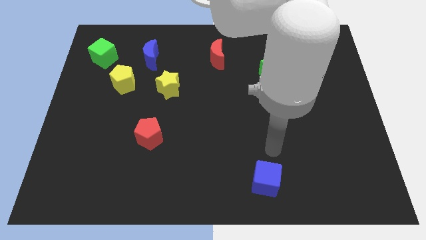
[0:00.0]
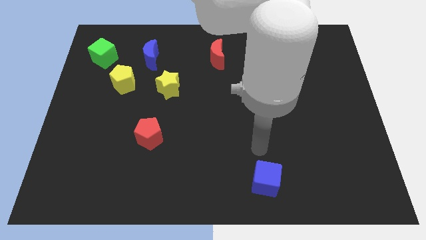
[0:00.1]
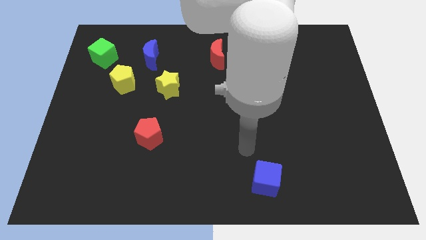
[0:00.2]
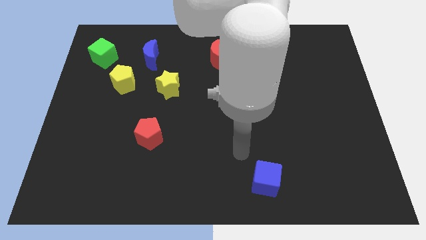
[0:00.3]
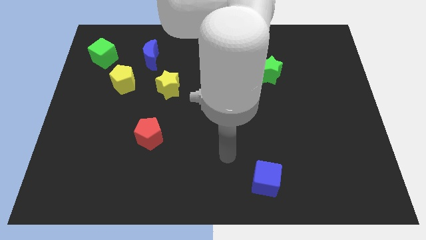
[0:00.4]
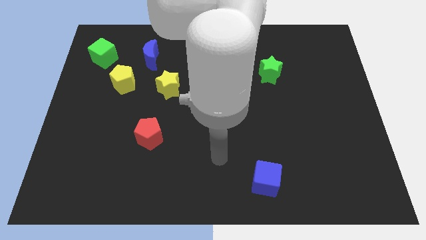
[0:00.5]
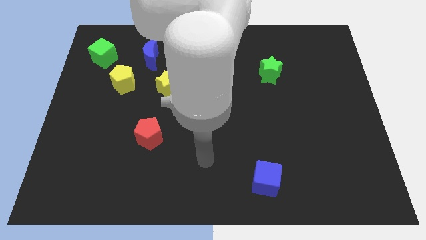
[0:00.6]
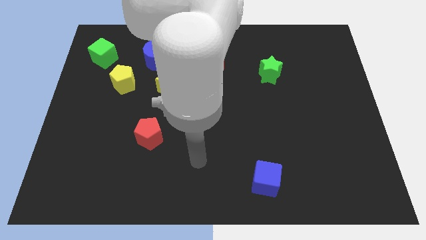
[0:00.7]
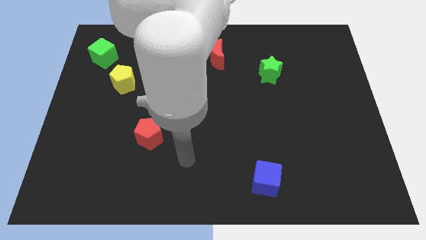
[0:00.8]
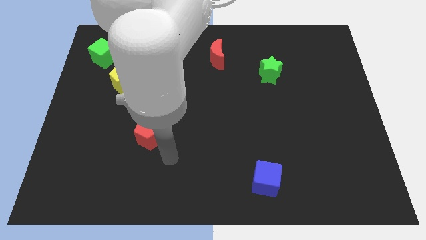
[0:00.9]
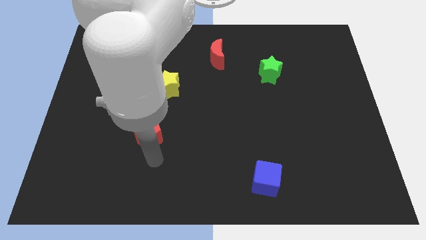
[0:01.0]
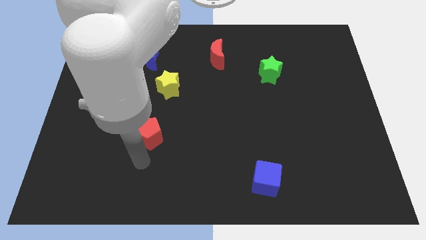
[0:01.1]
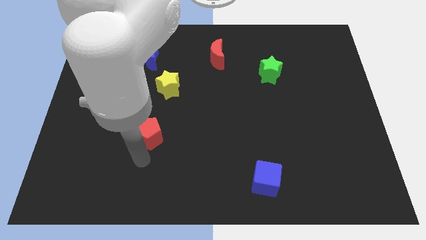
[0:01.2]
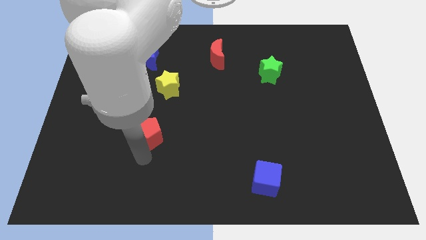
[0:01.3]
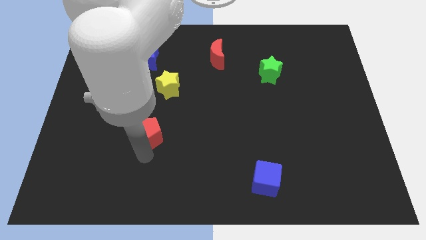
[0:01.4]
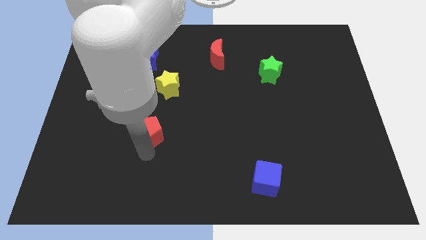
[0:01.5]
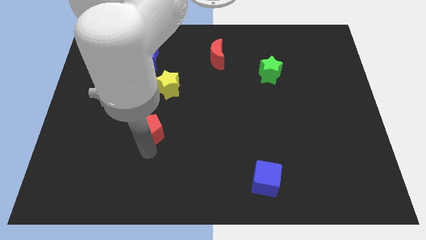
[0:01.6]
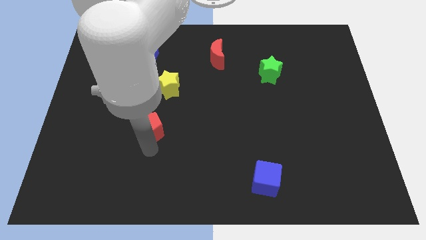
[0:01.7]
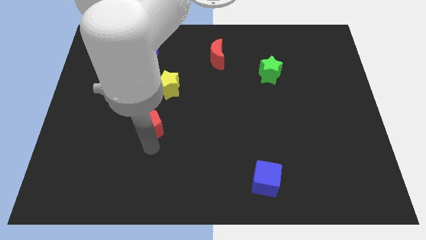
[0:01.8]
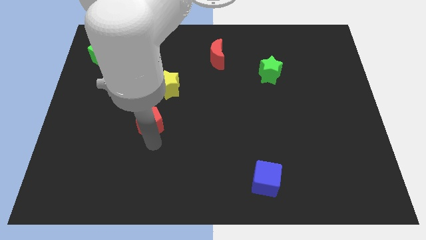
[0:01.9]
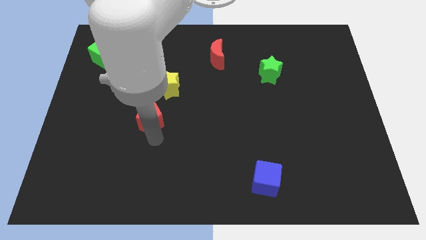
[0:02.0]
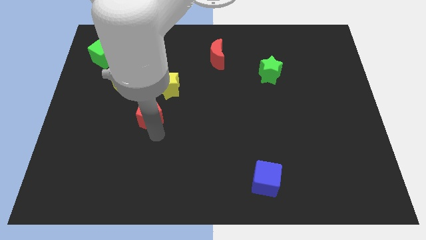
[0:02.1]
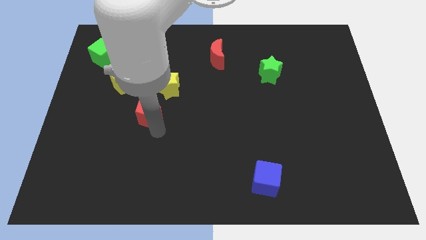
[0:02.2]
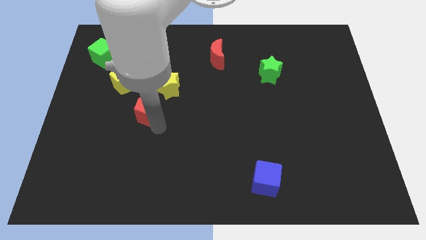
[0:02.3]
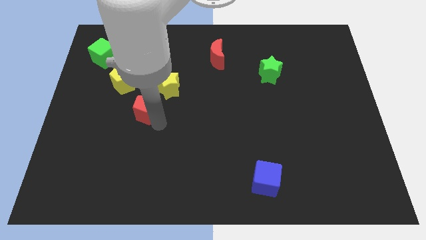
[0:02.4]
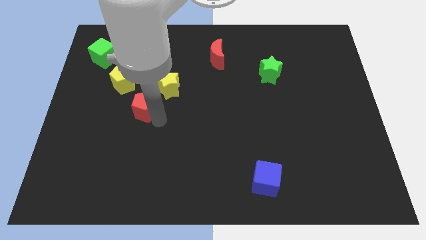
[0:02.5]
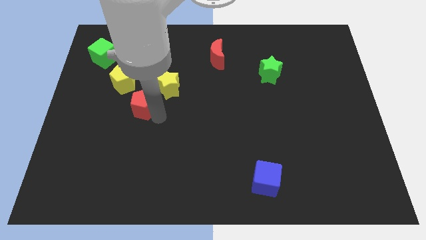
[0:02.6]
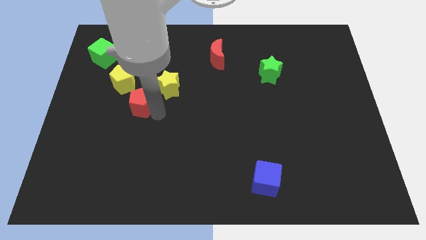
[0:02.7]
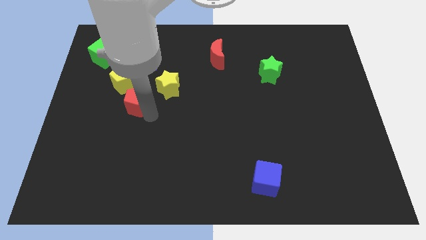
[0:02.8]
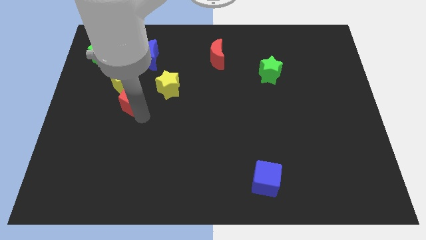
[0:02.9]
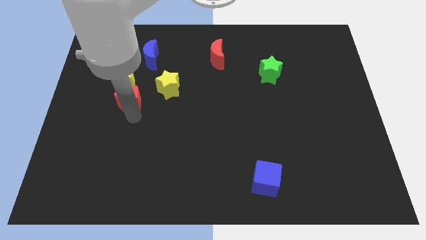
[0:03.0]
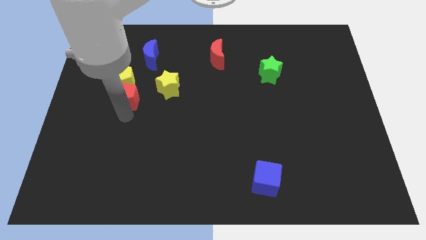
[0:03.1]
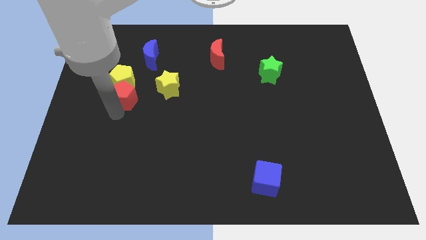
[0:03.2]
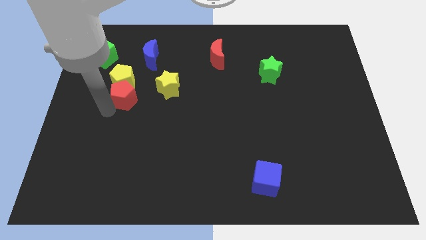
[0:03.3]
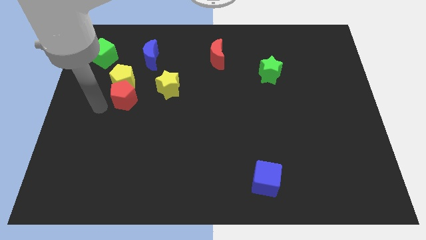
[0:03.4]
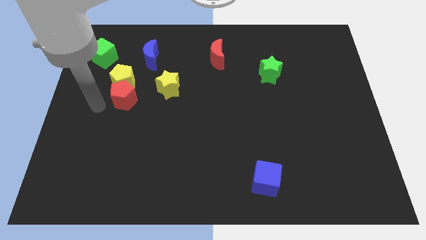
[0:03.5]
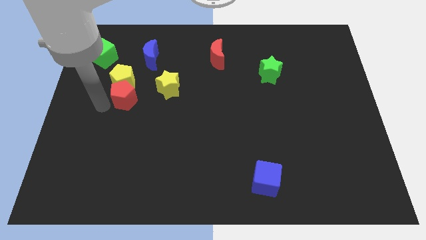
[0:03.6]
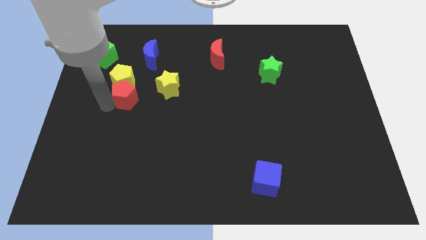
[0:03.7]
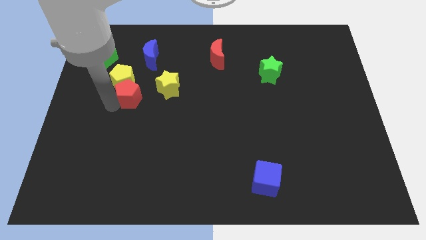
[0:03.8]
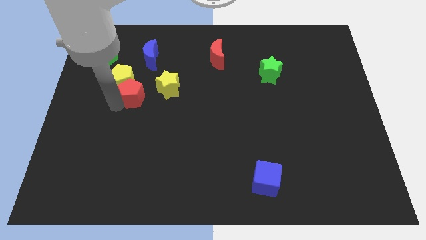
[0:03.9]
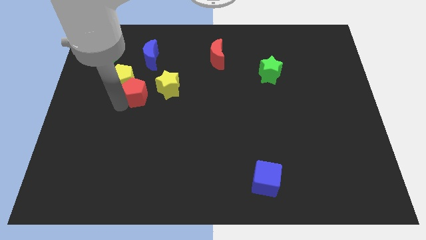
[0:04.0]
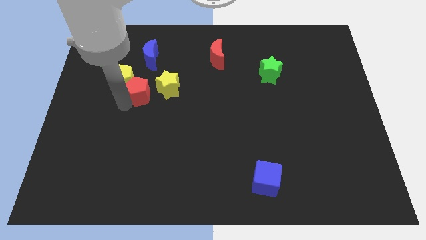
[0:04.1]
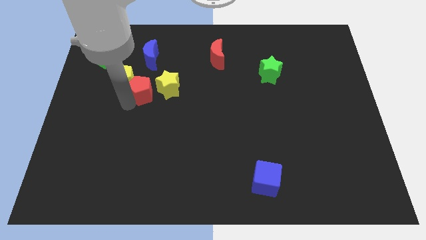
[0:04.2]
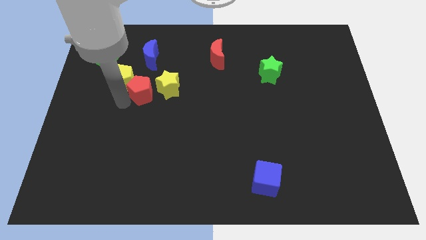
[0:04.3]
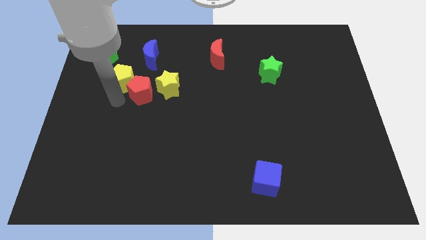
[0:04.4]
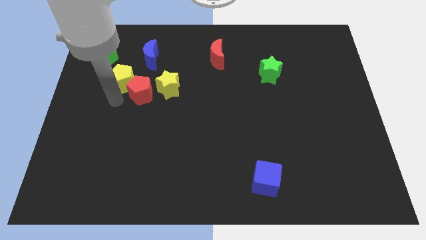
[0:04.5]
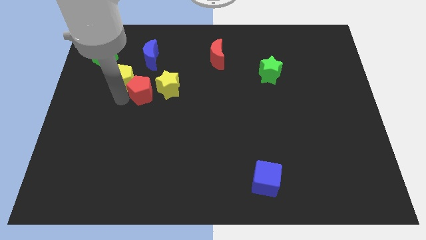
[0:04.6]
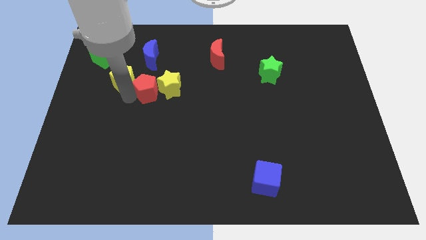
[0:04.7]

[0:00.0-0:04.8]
move the red pentagon next to the yellow star

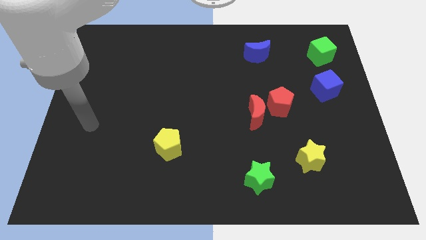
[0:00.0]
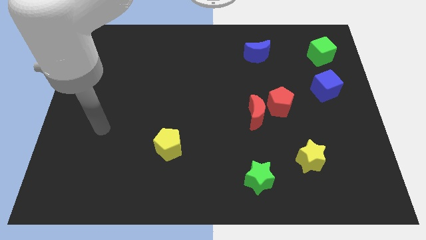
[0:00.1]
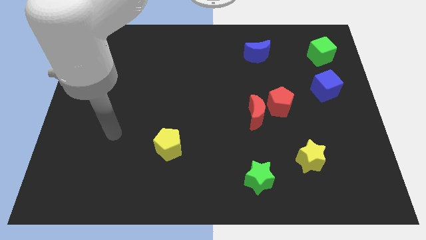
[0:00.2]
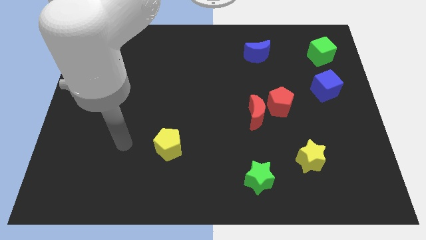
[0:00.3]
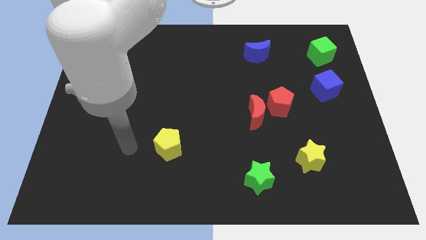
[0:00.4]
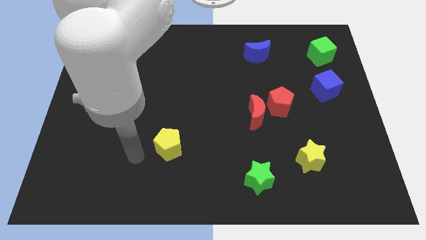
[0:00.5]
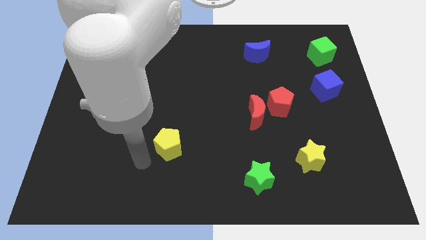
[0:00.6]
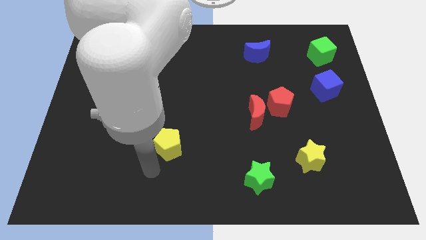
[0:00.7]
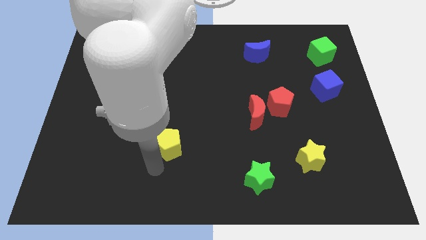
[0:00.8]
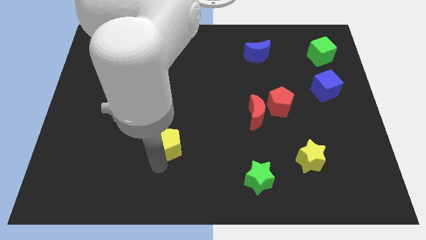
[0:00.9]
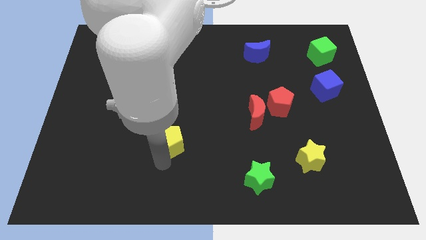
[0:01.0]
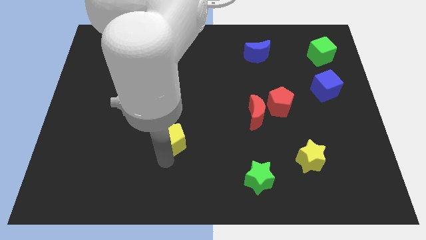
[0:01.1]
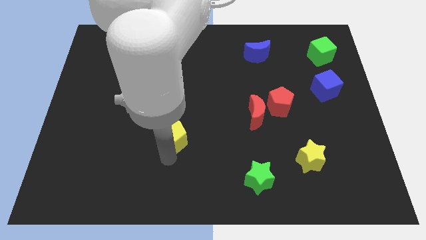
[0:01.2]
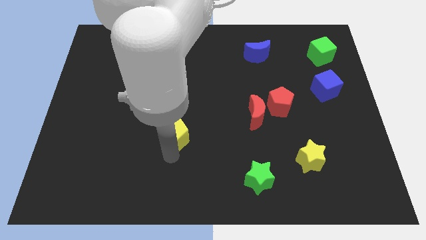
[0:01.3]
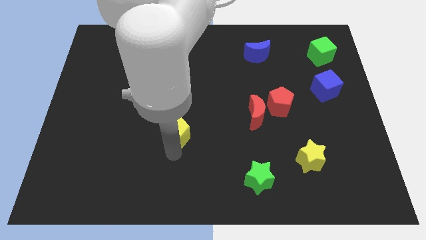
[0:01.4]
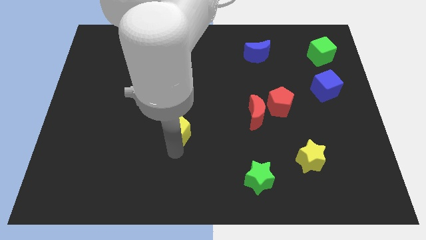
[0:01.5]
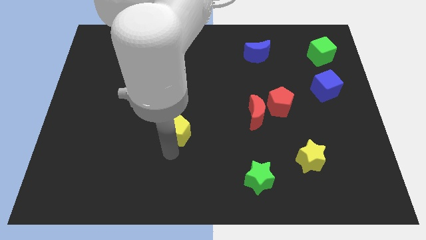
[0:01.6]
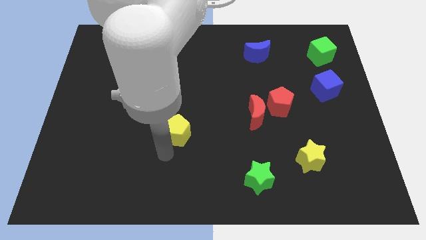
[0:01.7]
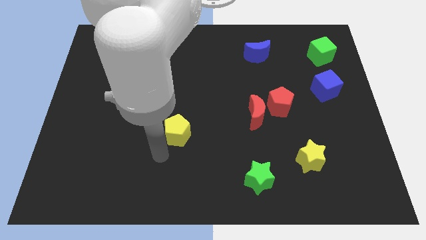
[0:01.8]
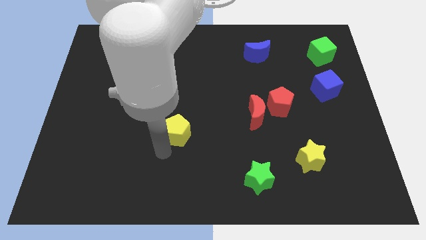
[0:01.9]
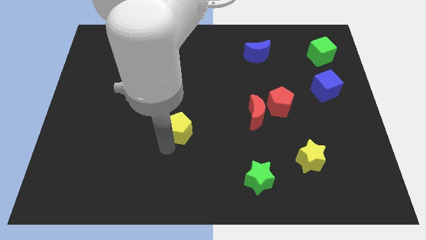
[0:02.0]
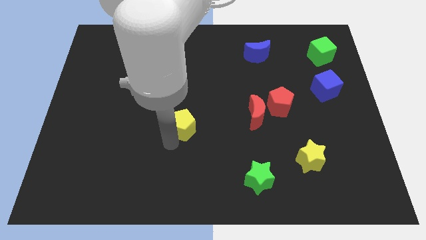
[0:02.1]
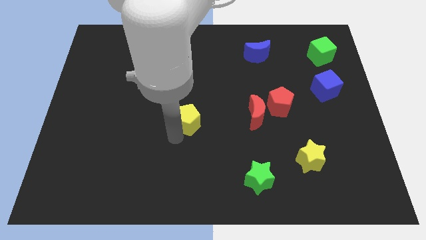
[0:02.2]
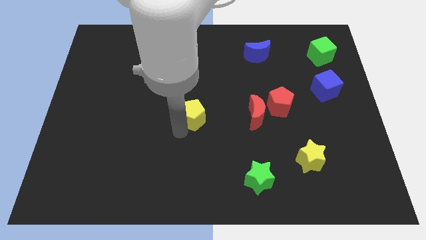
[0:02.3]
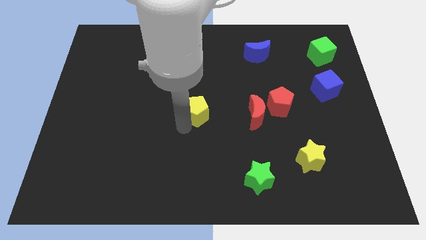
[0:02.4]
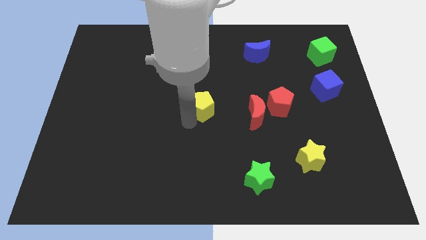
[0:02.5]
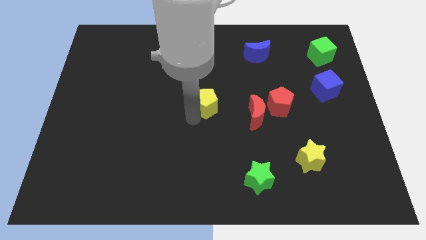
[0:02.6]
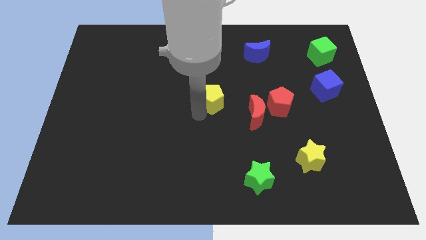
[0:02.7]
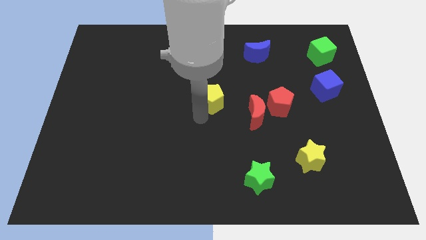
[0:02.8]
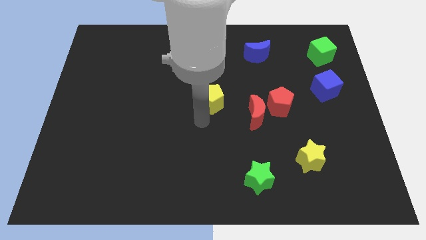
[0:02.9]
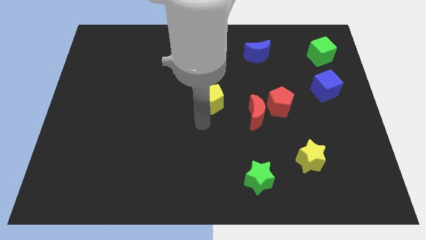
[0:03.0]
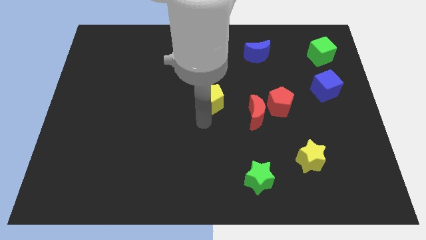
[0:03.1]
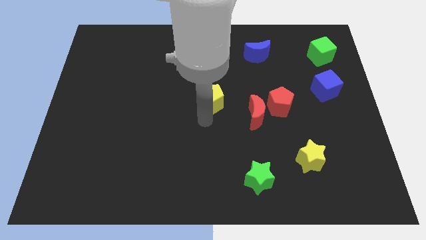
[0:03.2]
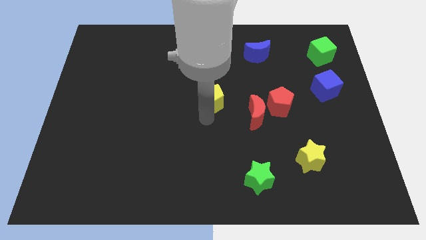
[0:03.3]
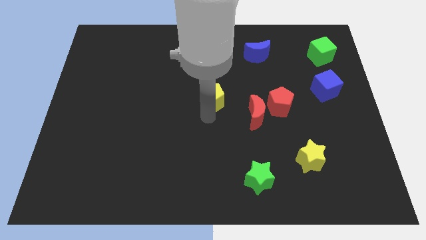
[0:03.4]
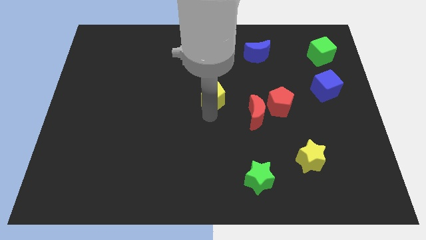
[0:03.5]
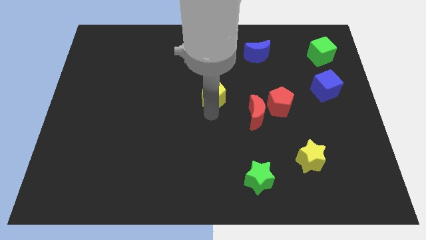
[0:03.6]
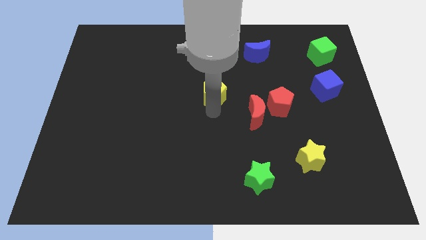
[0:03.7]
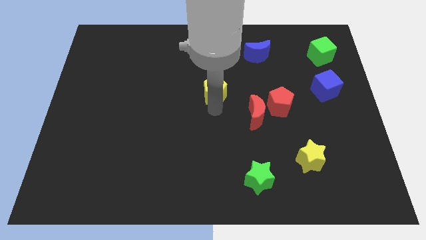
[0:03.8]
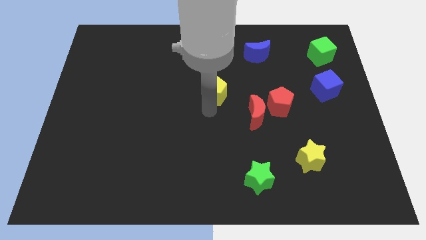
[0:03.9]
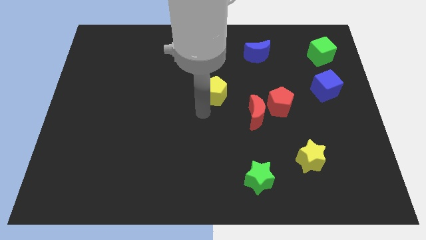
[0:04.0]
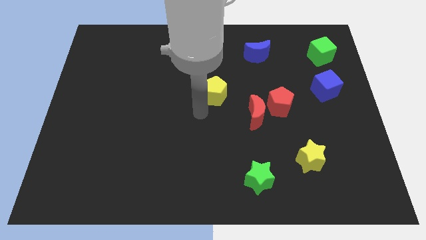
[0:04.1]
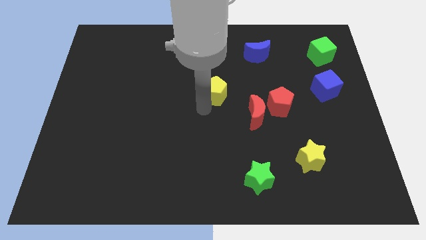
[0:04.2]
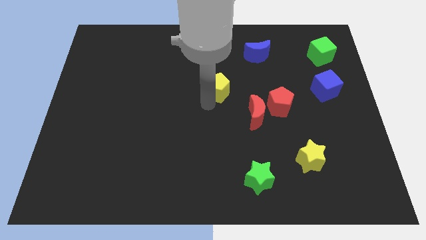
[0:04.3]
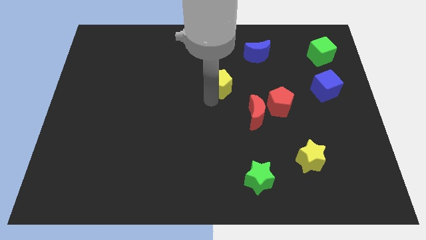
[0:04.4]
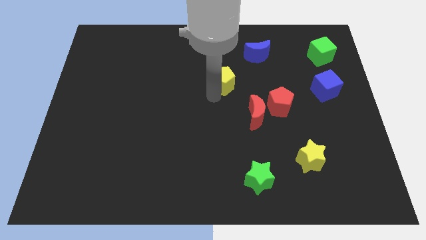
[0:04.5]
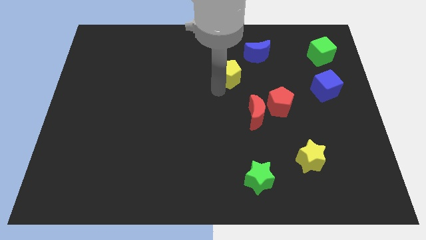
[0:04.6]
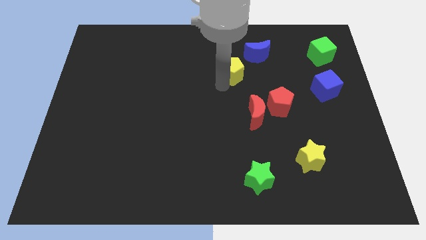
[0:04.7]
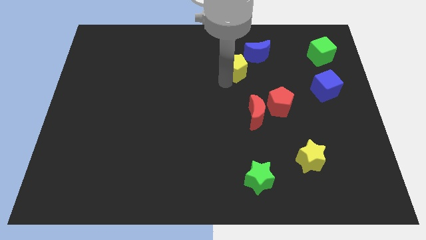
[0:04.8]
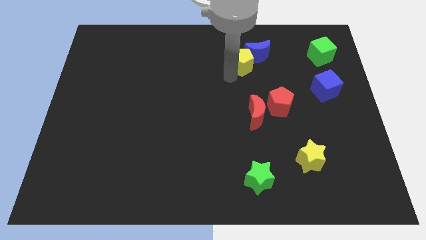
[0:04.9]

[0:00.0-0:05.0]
put the yellow pentagon close to the blue moon
